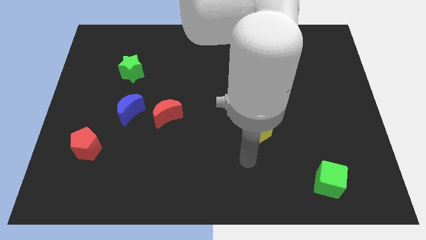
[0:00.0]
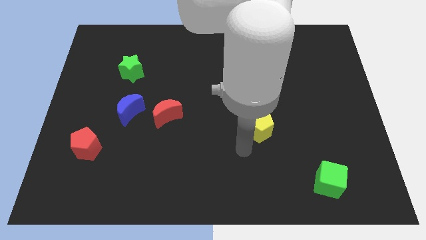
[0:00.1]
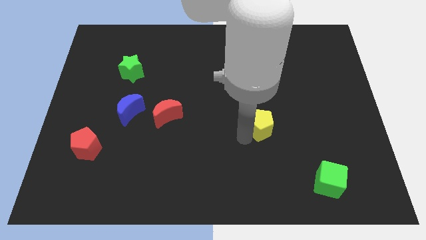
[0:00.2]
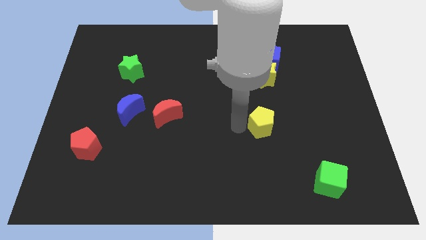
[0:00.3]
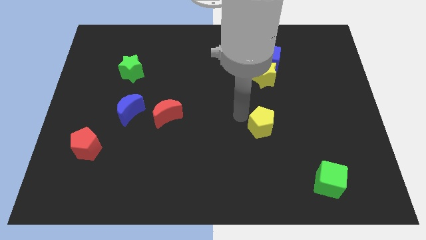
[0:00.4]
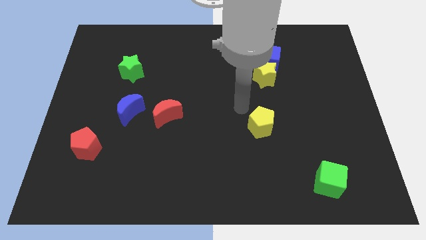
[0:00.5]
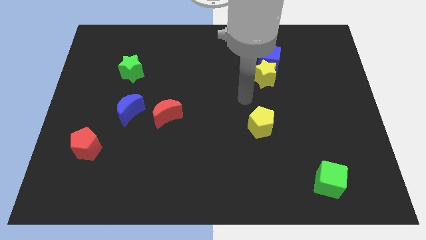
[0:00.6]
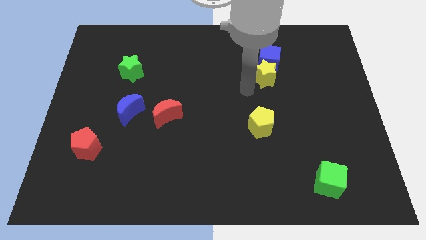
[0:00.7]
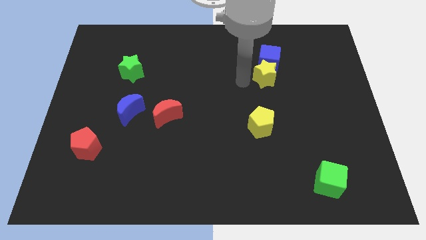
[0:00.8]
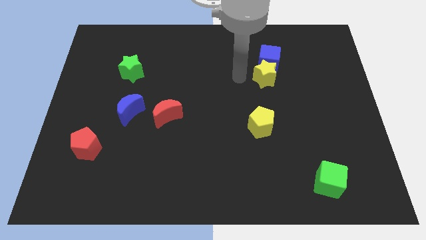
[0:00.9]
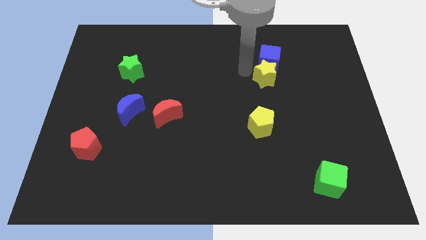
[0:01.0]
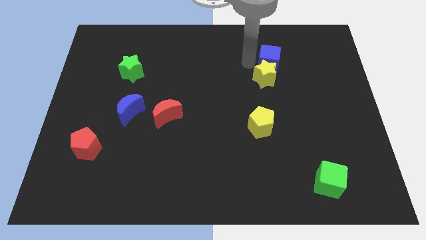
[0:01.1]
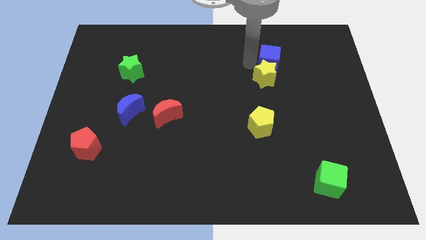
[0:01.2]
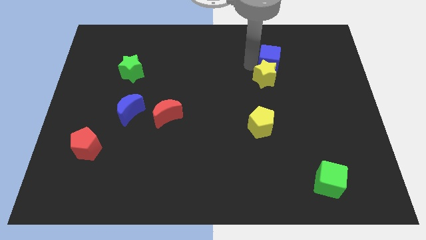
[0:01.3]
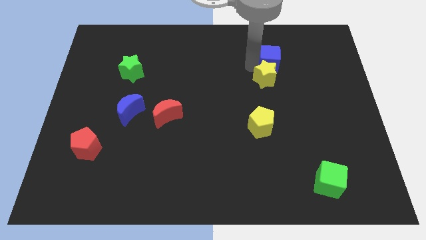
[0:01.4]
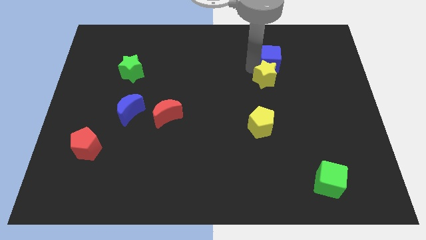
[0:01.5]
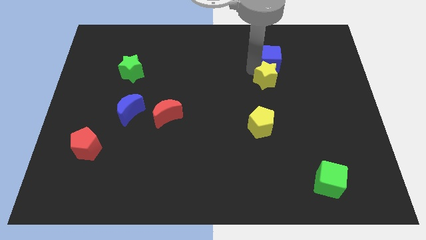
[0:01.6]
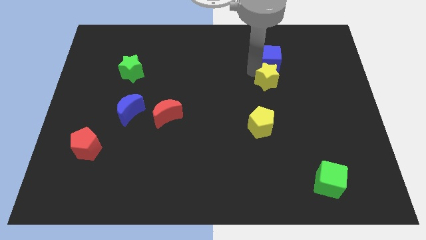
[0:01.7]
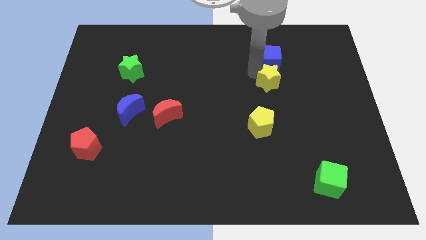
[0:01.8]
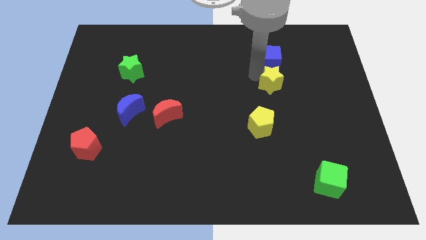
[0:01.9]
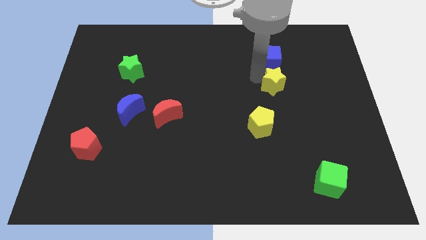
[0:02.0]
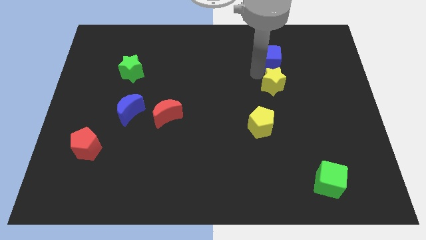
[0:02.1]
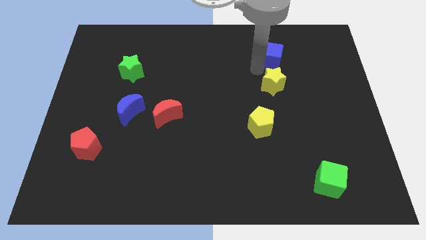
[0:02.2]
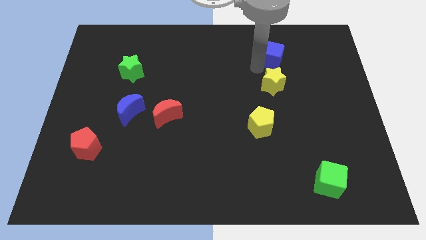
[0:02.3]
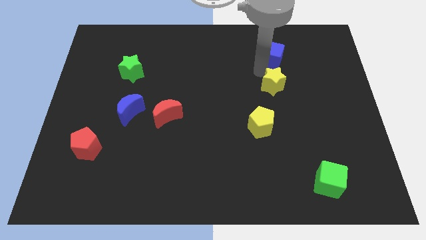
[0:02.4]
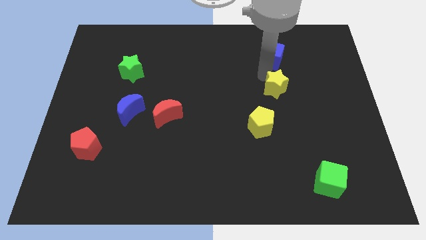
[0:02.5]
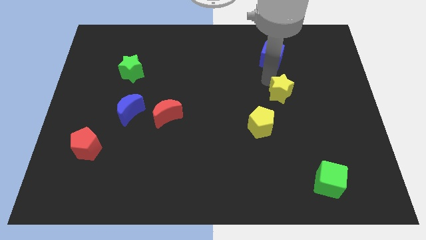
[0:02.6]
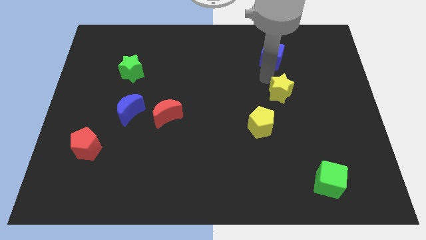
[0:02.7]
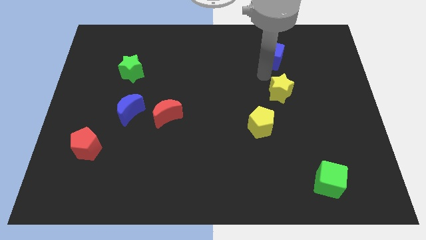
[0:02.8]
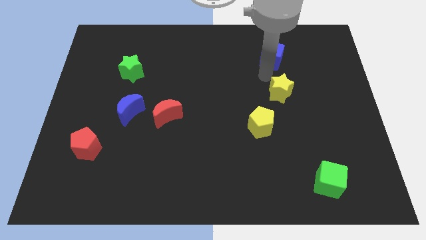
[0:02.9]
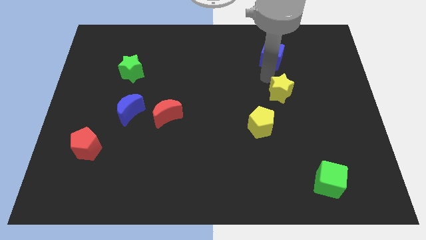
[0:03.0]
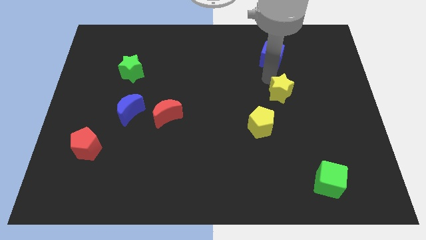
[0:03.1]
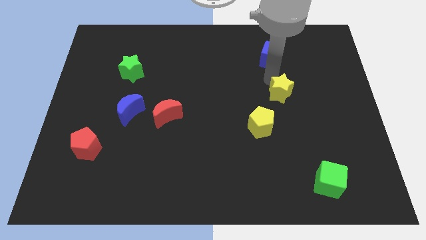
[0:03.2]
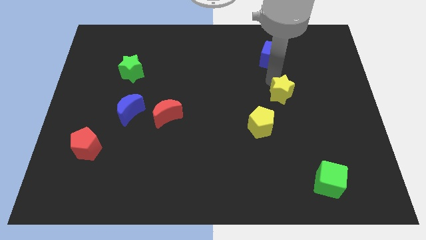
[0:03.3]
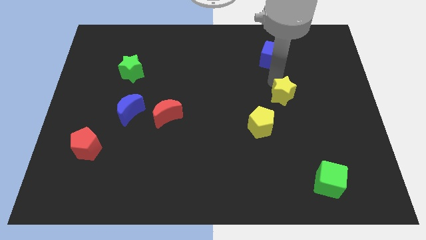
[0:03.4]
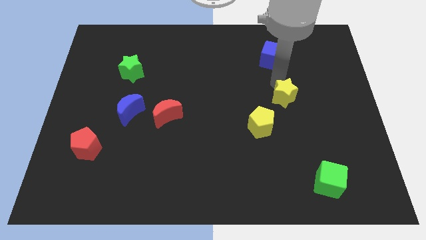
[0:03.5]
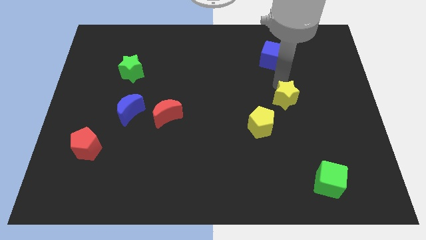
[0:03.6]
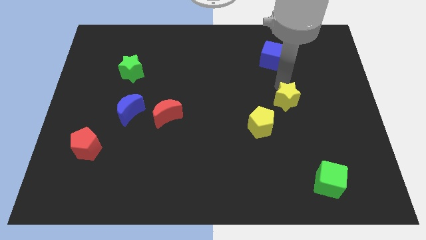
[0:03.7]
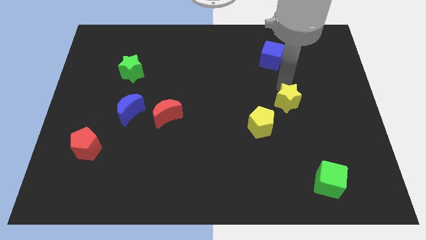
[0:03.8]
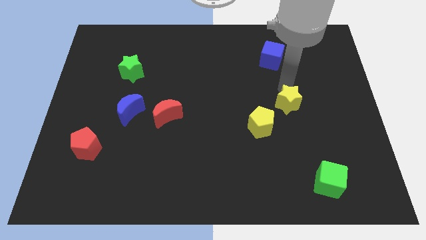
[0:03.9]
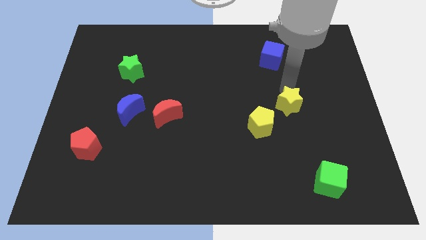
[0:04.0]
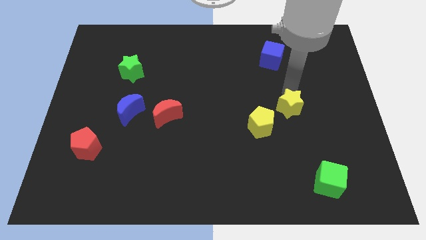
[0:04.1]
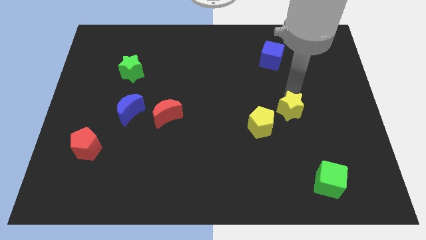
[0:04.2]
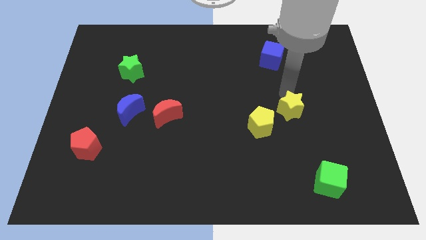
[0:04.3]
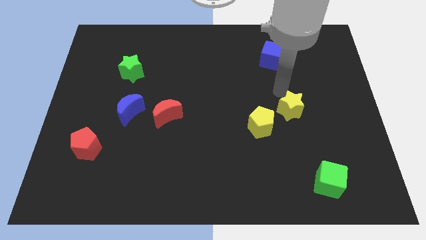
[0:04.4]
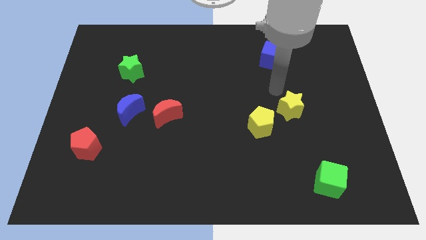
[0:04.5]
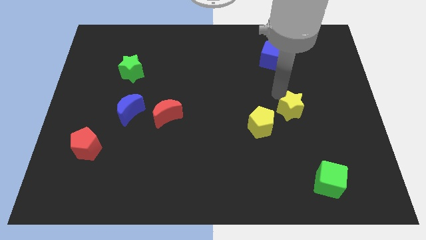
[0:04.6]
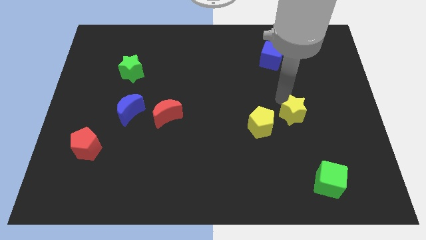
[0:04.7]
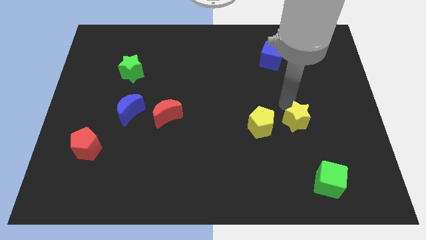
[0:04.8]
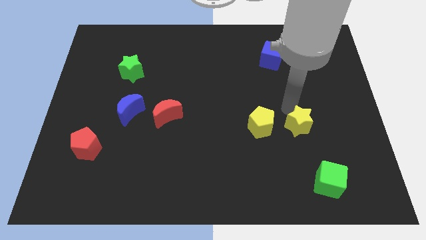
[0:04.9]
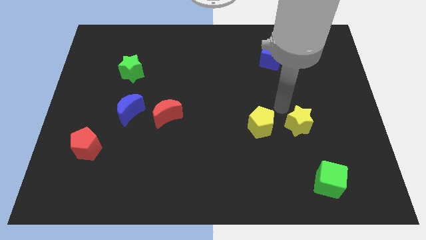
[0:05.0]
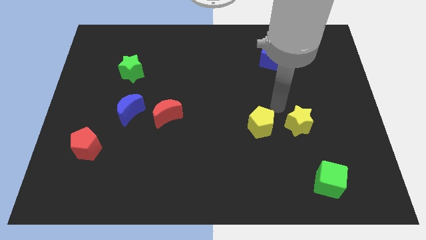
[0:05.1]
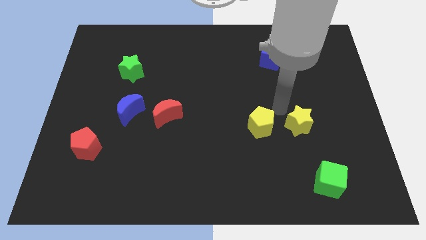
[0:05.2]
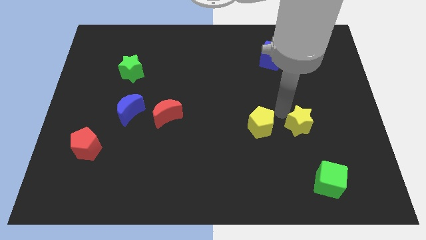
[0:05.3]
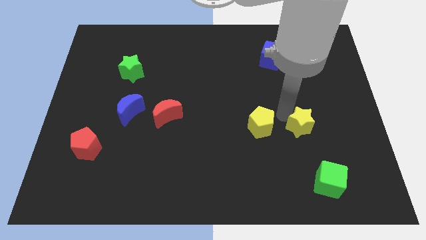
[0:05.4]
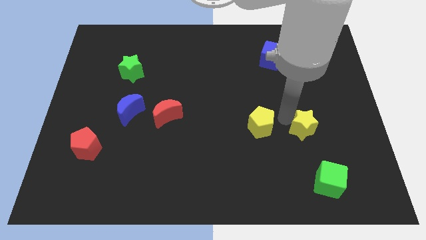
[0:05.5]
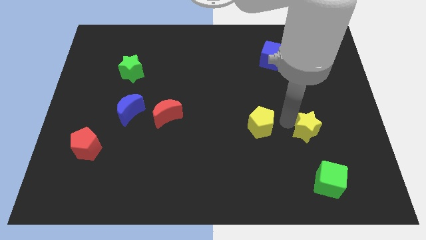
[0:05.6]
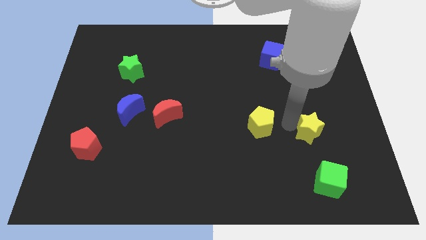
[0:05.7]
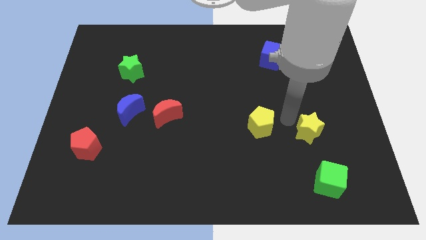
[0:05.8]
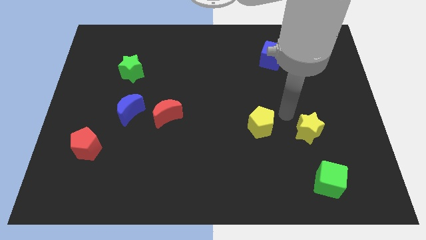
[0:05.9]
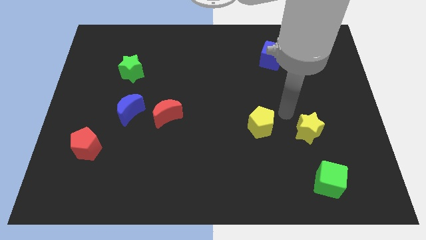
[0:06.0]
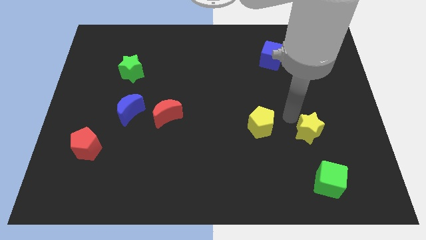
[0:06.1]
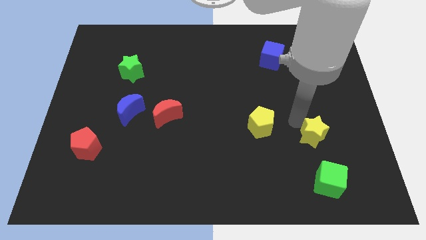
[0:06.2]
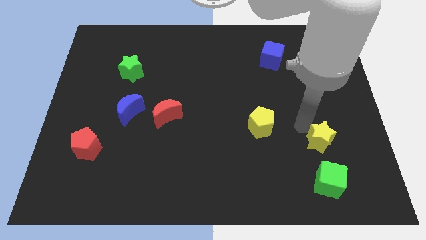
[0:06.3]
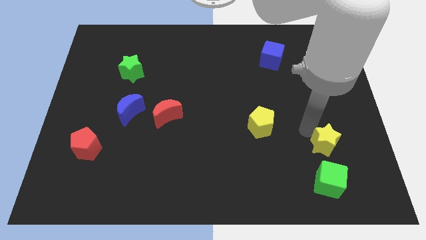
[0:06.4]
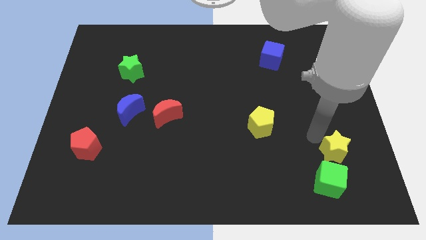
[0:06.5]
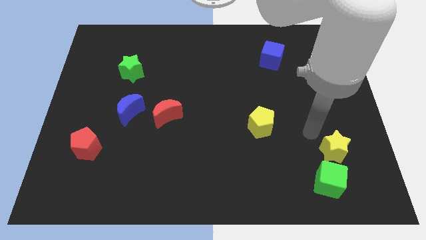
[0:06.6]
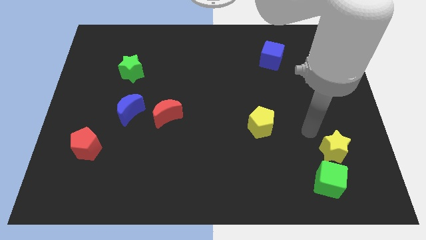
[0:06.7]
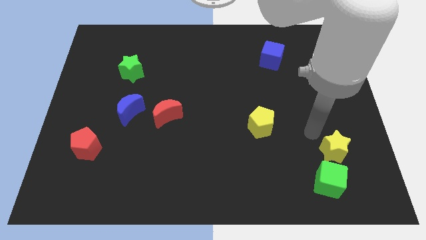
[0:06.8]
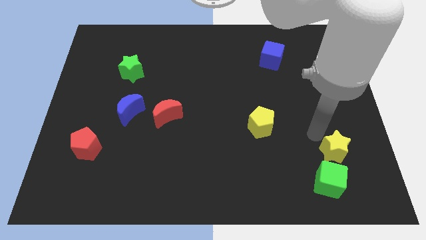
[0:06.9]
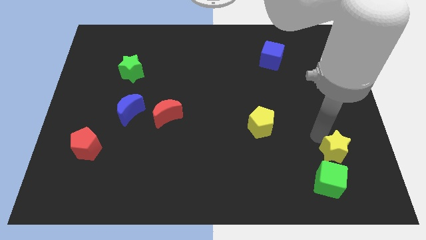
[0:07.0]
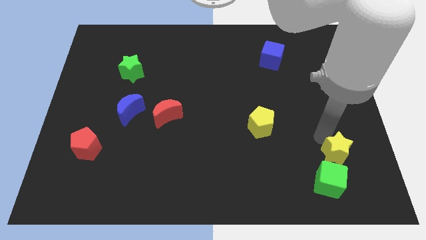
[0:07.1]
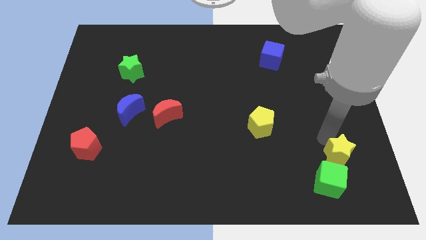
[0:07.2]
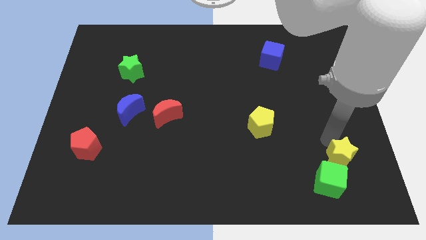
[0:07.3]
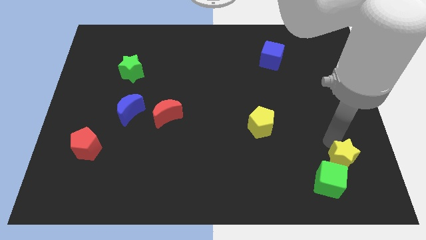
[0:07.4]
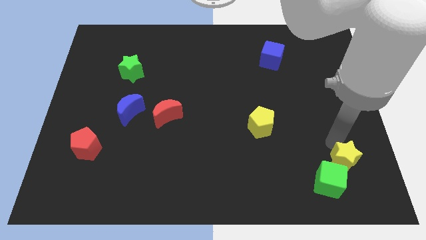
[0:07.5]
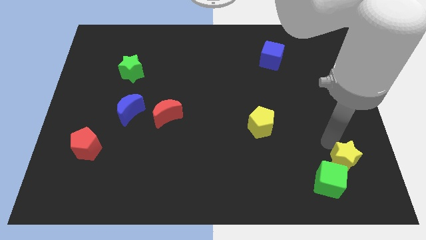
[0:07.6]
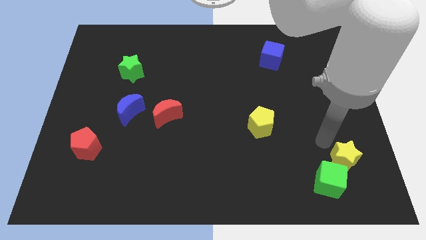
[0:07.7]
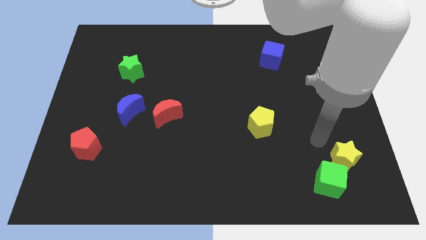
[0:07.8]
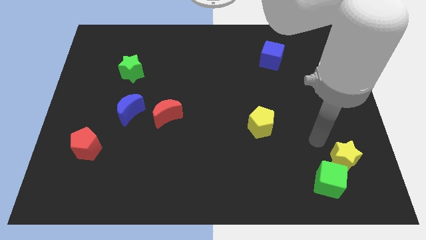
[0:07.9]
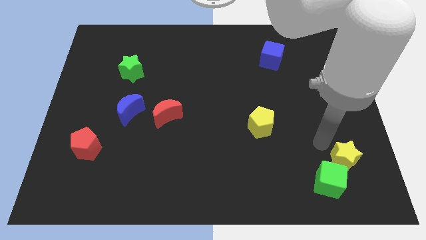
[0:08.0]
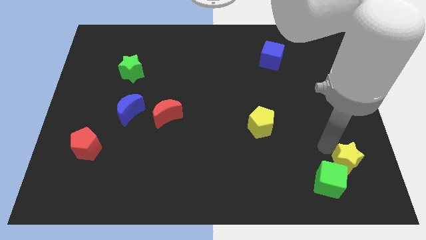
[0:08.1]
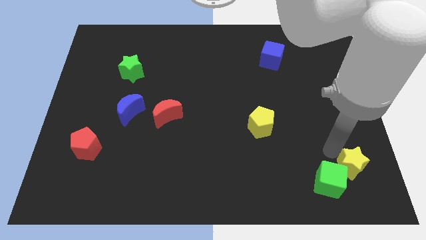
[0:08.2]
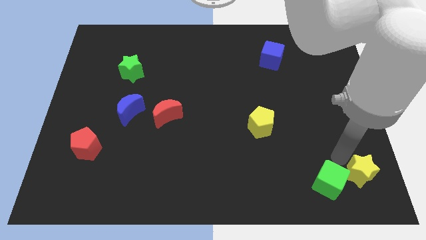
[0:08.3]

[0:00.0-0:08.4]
put the yellow star to the bottom right
